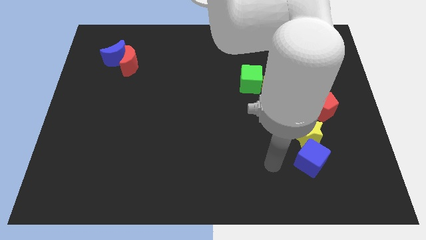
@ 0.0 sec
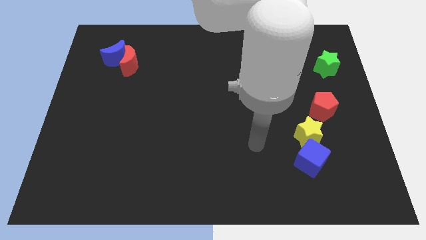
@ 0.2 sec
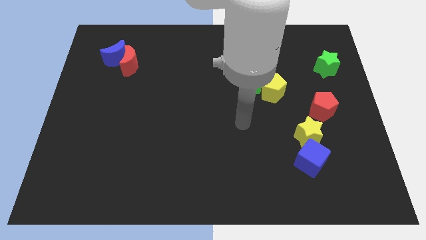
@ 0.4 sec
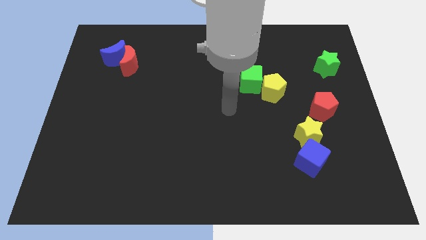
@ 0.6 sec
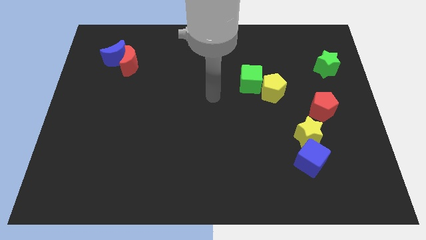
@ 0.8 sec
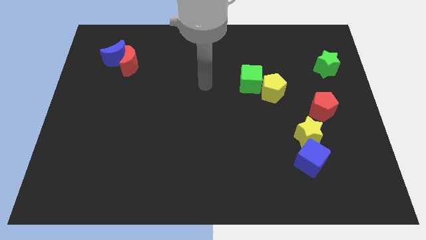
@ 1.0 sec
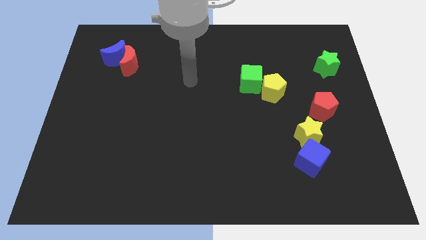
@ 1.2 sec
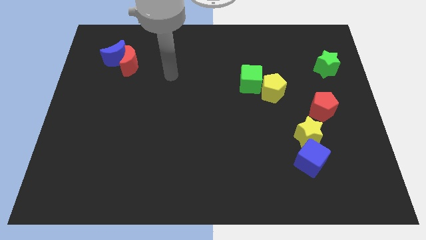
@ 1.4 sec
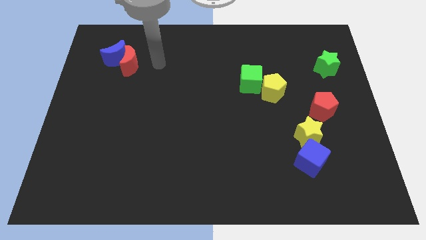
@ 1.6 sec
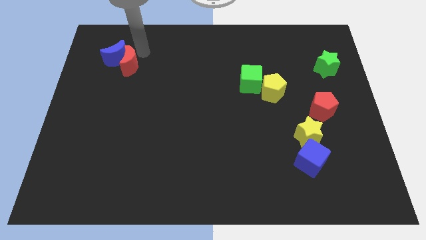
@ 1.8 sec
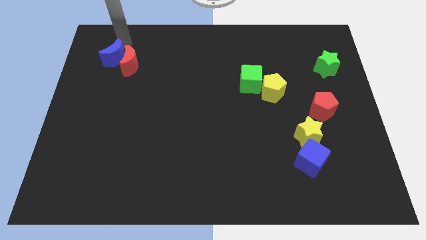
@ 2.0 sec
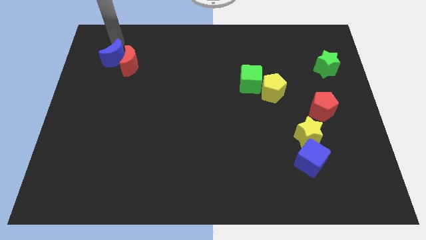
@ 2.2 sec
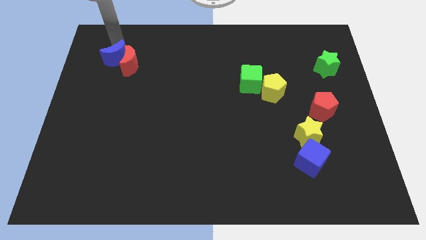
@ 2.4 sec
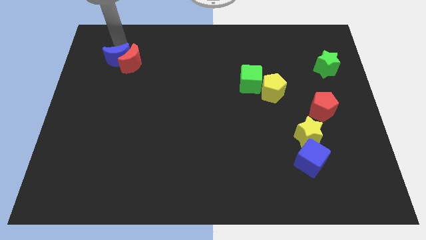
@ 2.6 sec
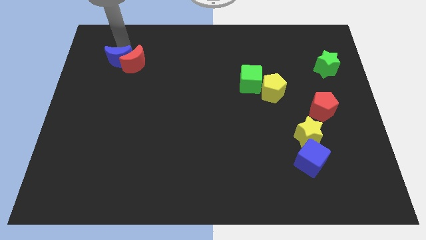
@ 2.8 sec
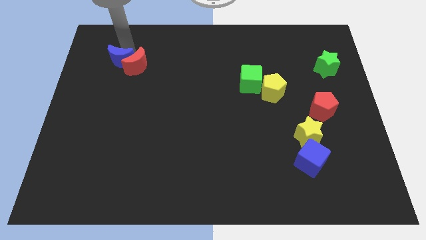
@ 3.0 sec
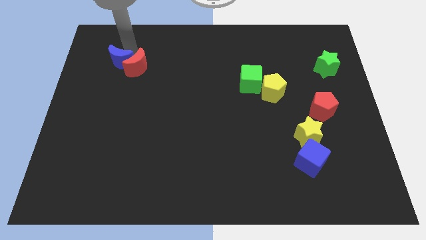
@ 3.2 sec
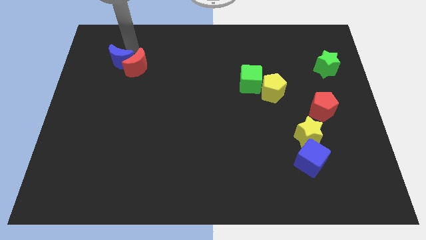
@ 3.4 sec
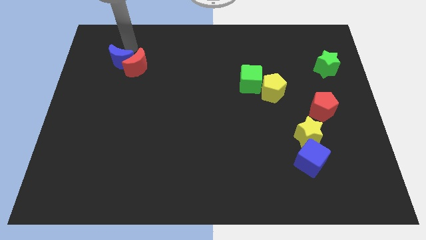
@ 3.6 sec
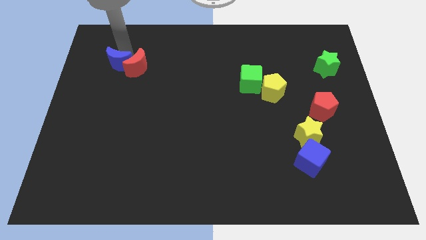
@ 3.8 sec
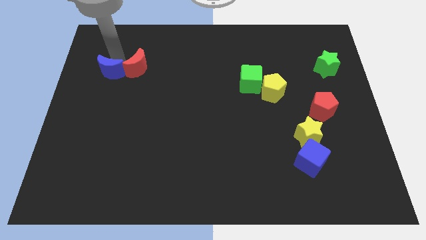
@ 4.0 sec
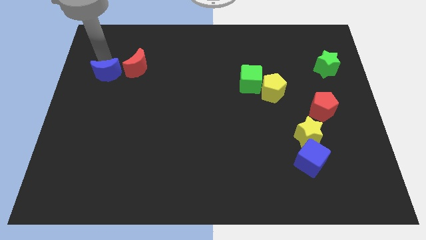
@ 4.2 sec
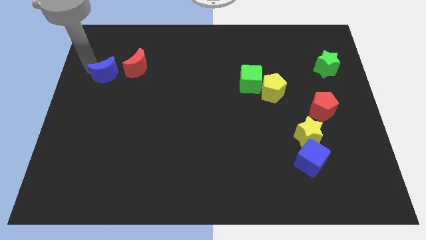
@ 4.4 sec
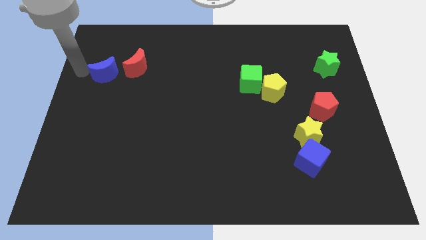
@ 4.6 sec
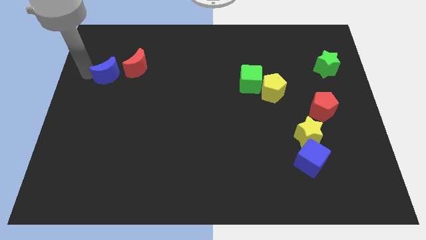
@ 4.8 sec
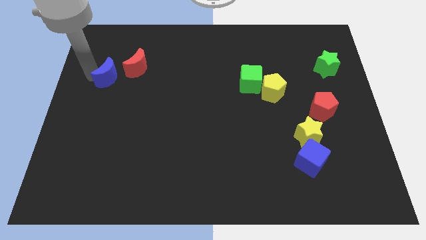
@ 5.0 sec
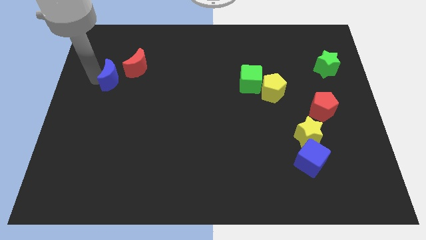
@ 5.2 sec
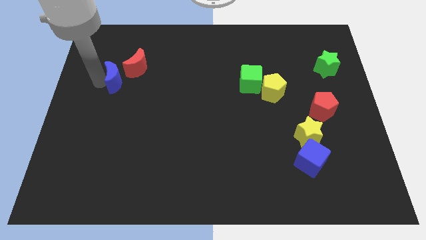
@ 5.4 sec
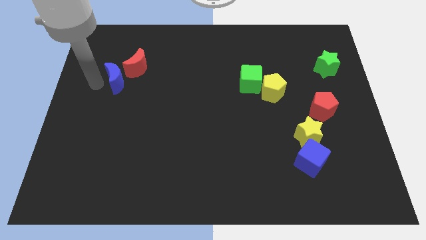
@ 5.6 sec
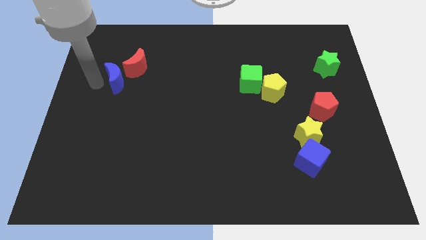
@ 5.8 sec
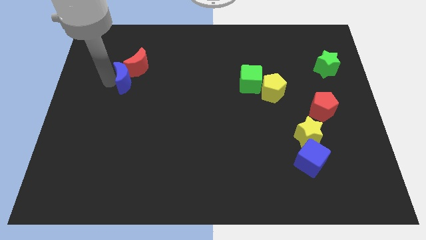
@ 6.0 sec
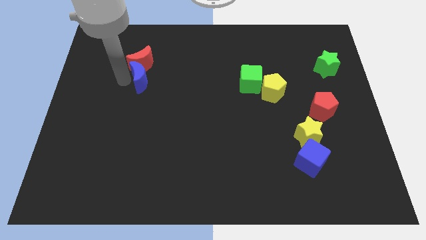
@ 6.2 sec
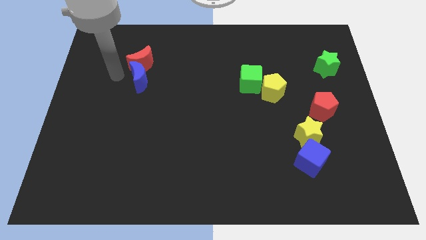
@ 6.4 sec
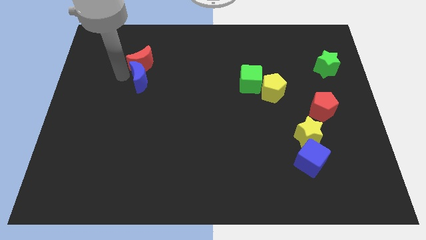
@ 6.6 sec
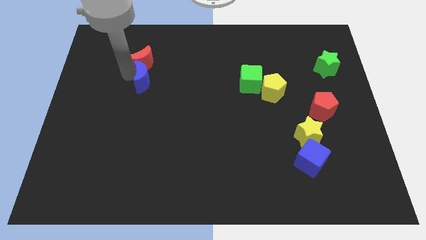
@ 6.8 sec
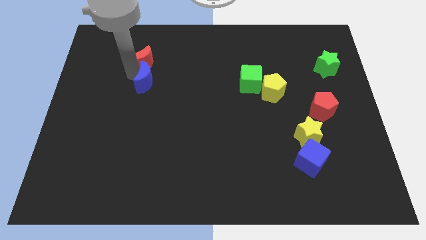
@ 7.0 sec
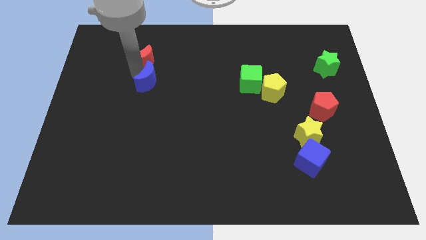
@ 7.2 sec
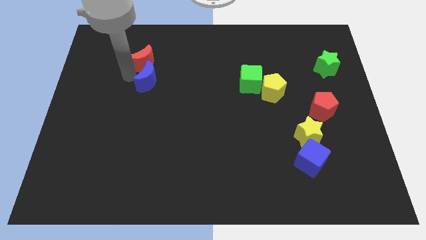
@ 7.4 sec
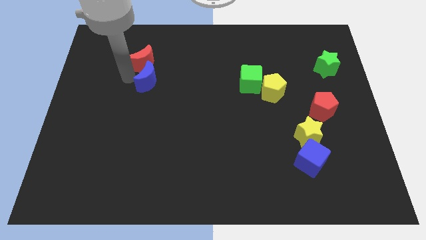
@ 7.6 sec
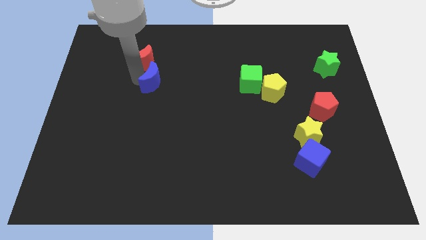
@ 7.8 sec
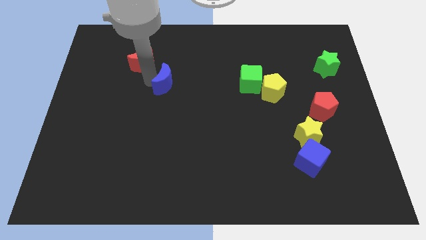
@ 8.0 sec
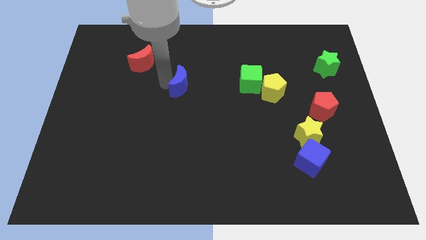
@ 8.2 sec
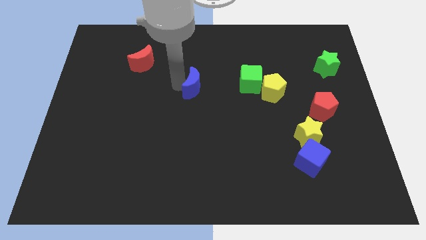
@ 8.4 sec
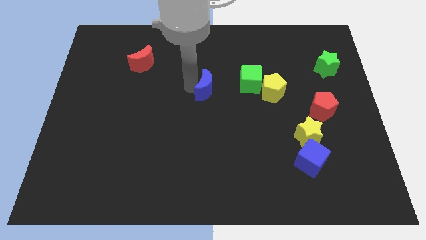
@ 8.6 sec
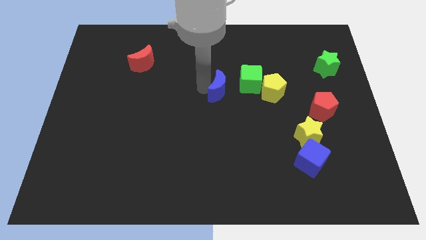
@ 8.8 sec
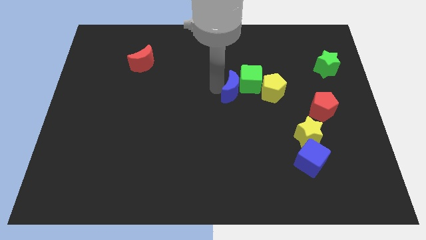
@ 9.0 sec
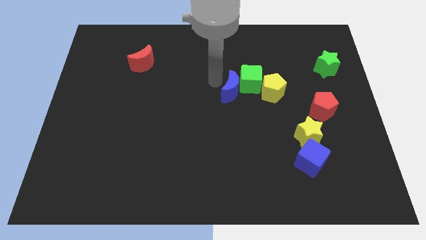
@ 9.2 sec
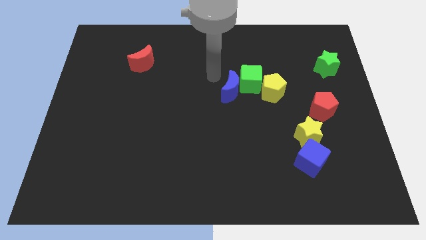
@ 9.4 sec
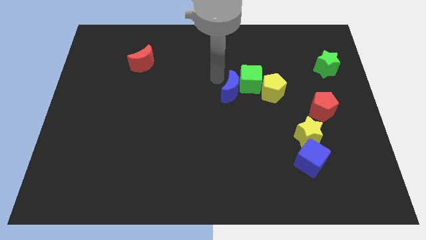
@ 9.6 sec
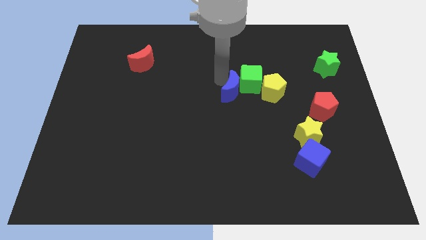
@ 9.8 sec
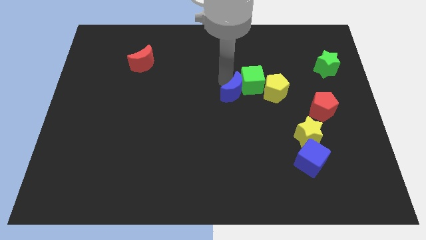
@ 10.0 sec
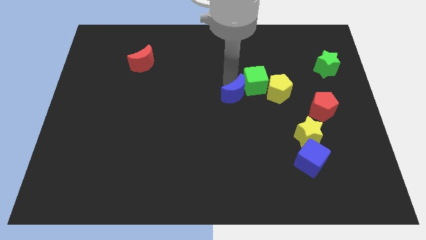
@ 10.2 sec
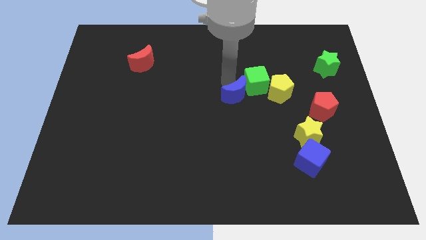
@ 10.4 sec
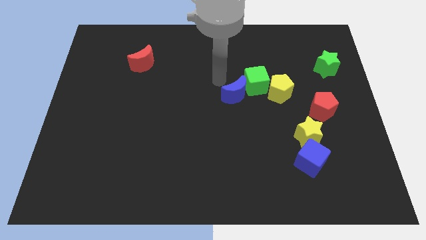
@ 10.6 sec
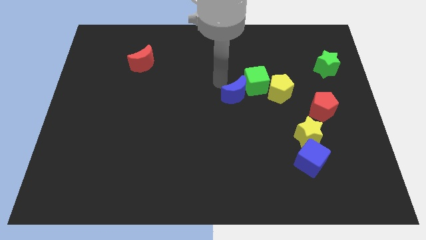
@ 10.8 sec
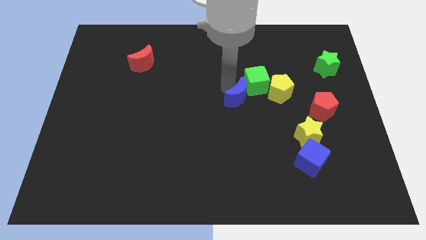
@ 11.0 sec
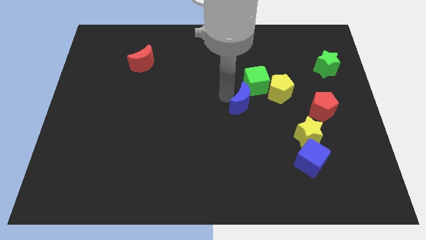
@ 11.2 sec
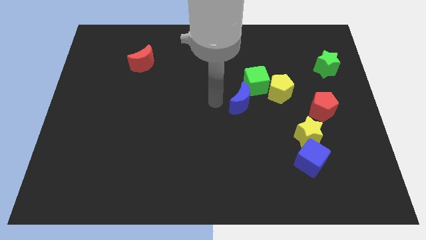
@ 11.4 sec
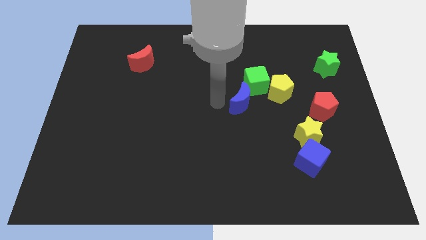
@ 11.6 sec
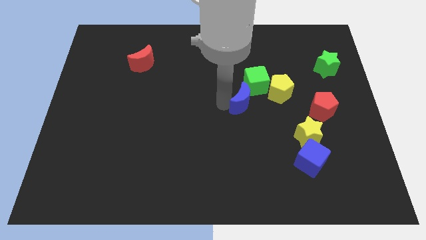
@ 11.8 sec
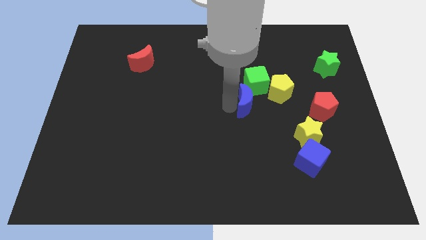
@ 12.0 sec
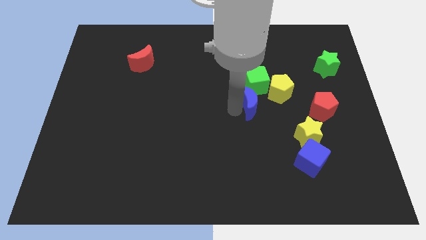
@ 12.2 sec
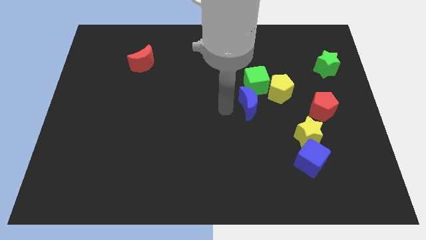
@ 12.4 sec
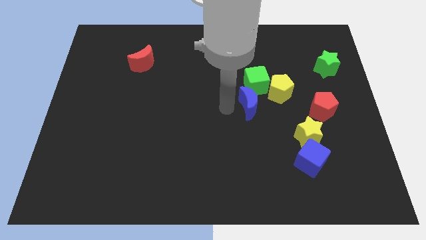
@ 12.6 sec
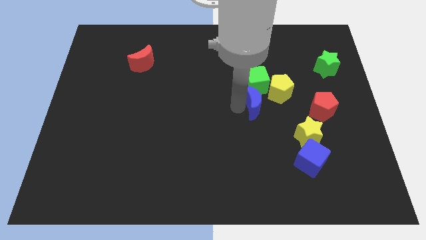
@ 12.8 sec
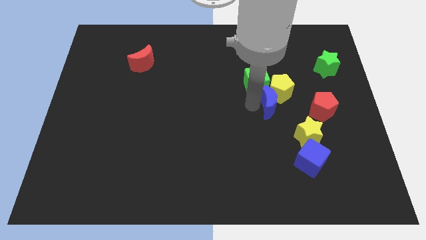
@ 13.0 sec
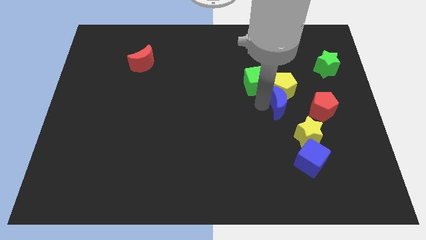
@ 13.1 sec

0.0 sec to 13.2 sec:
slide the blue moon to the bottom right side of the yellow pentagon

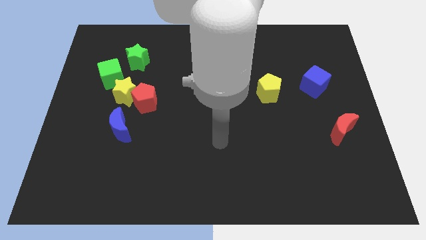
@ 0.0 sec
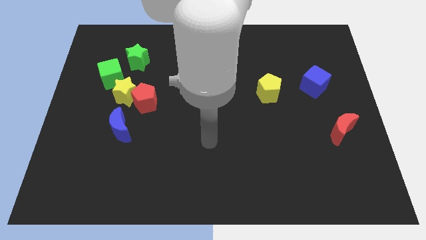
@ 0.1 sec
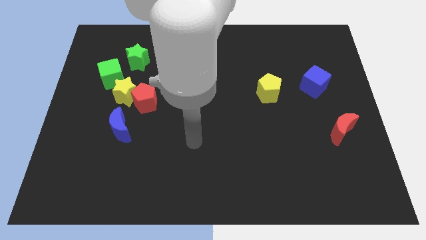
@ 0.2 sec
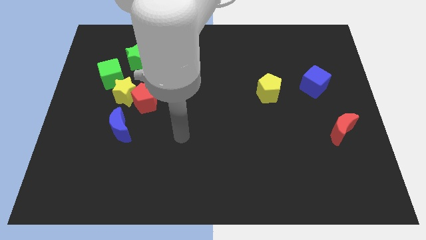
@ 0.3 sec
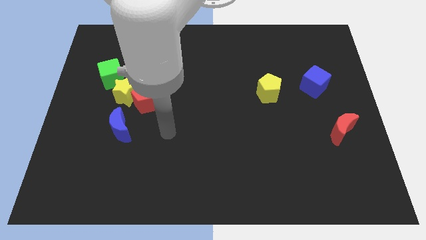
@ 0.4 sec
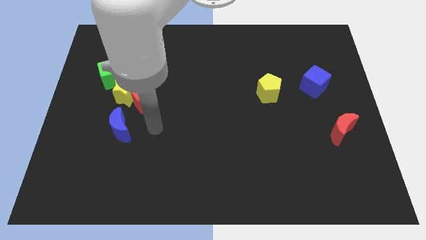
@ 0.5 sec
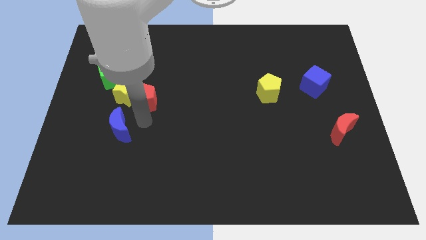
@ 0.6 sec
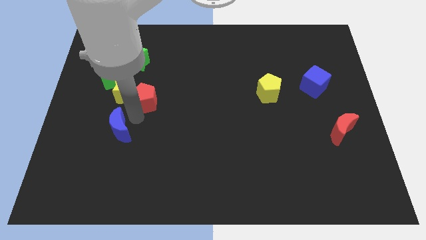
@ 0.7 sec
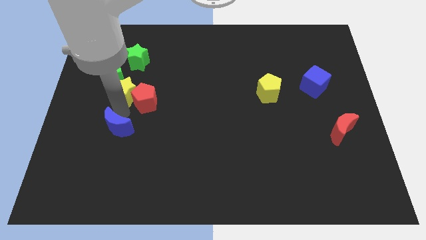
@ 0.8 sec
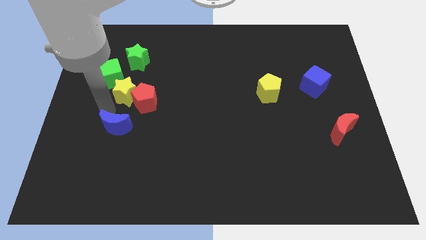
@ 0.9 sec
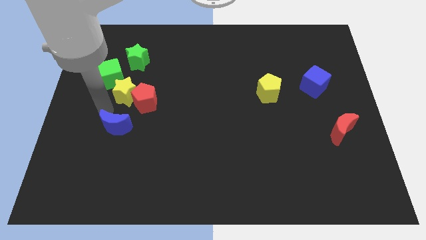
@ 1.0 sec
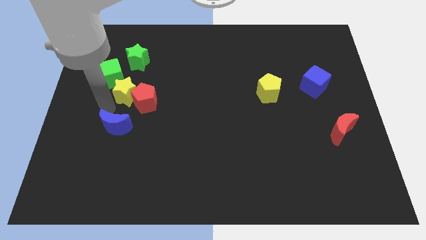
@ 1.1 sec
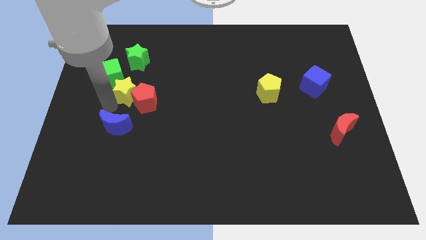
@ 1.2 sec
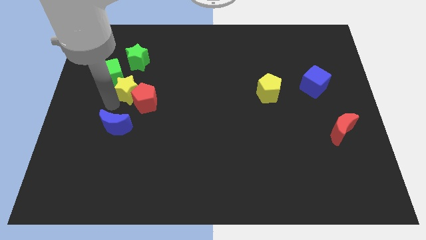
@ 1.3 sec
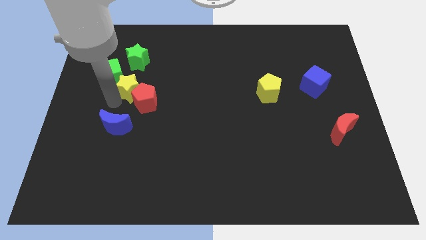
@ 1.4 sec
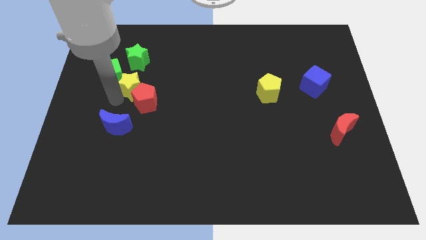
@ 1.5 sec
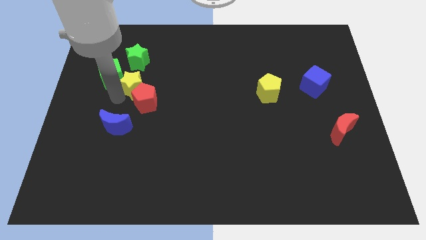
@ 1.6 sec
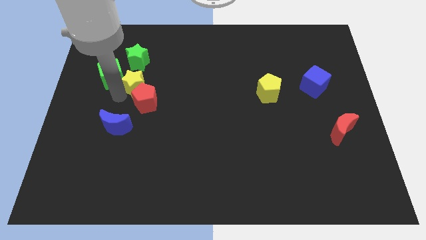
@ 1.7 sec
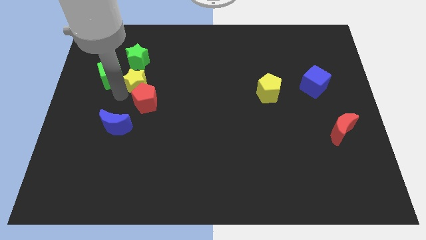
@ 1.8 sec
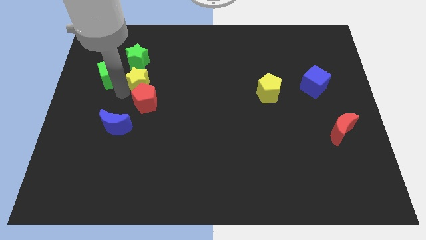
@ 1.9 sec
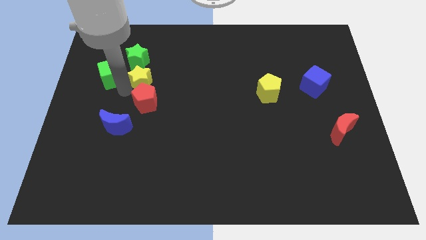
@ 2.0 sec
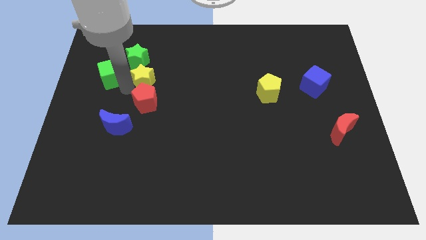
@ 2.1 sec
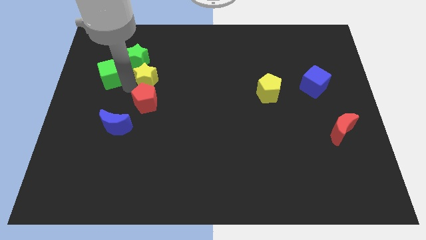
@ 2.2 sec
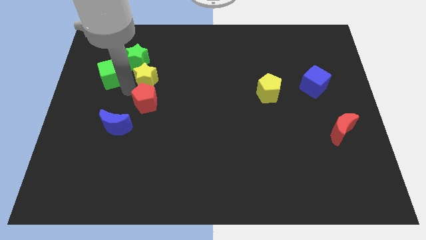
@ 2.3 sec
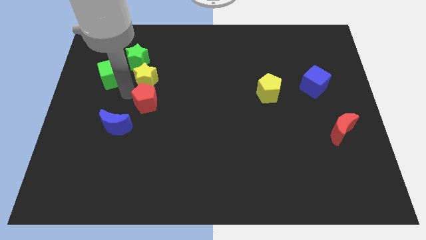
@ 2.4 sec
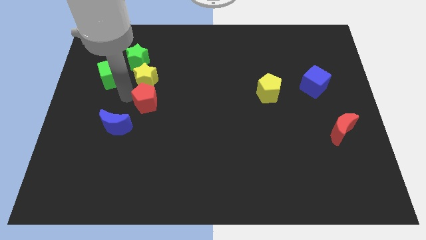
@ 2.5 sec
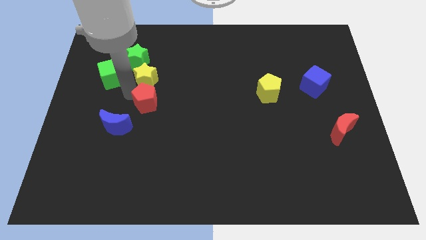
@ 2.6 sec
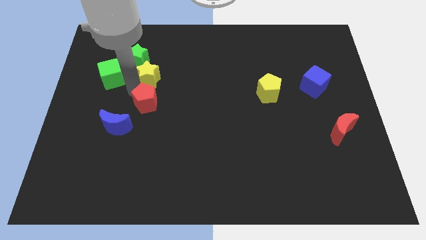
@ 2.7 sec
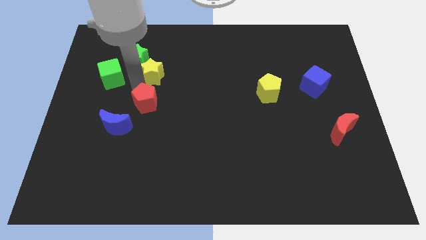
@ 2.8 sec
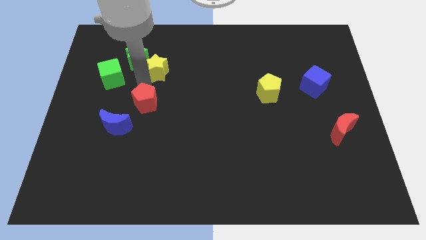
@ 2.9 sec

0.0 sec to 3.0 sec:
put the yellow star to the right of the green star
